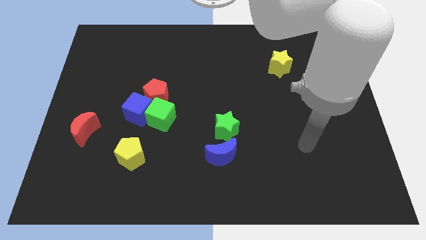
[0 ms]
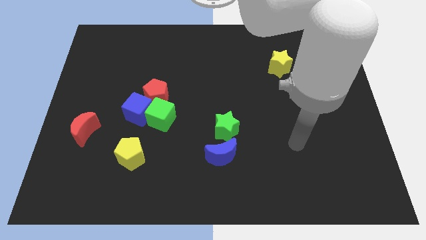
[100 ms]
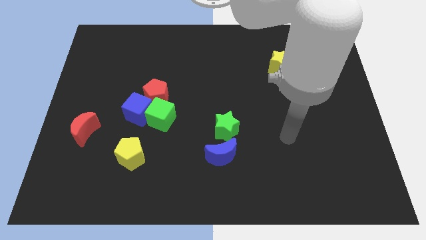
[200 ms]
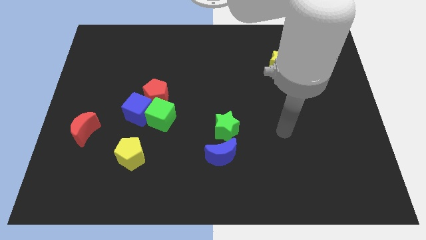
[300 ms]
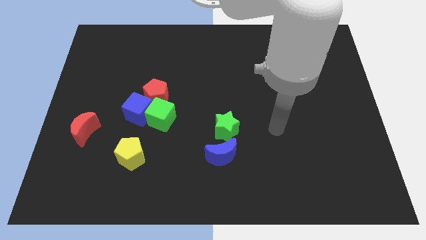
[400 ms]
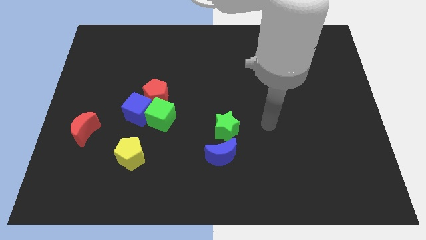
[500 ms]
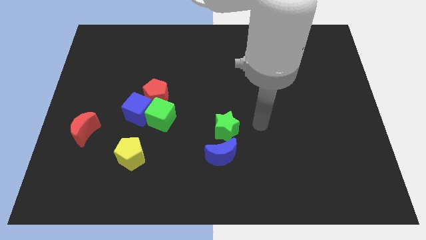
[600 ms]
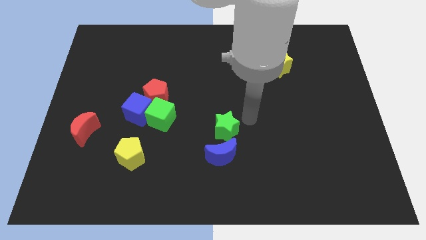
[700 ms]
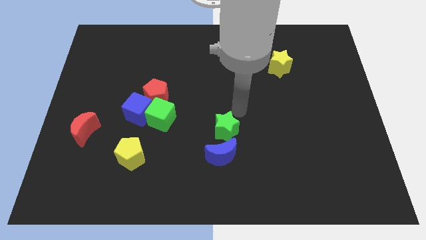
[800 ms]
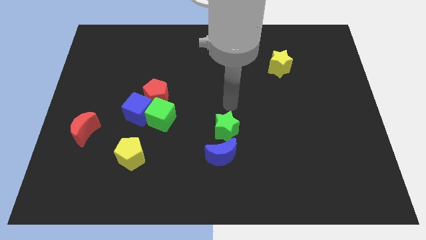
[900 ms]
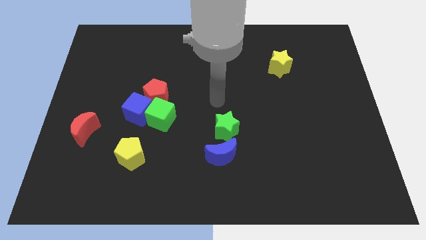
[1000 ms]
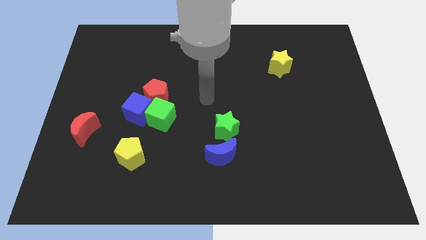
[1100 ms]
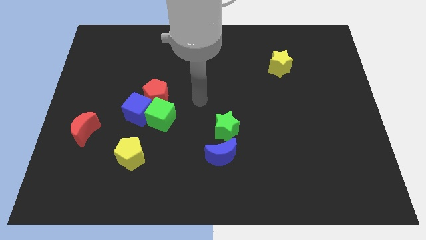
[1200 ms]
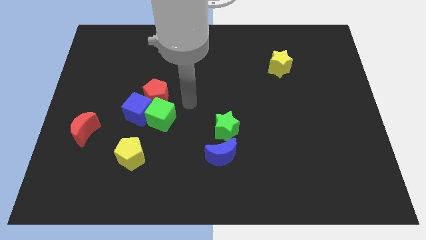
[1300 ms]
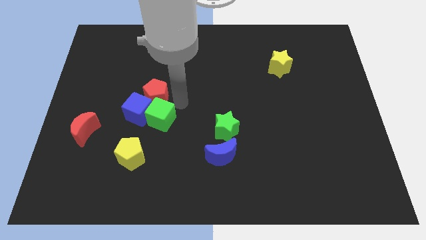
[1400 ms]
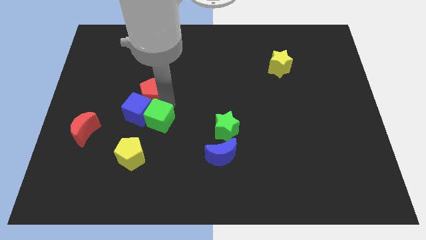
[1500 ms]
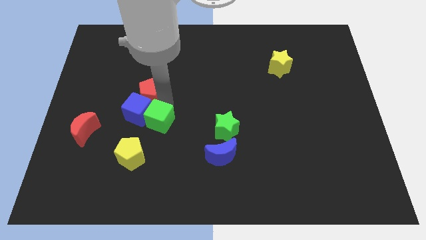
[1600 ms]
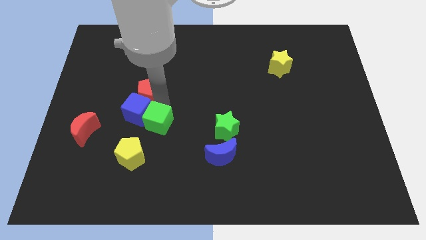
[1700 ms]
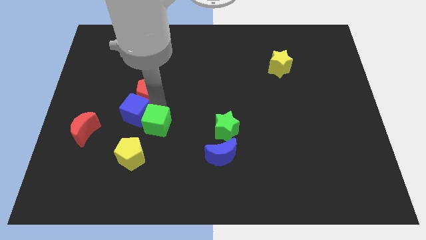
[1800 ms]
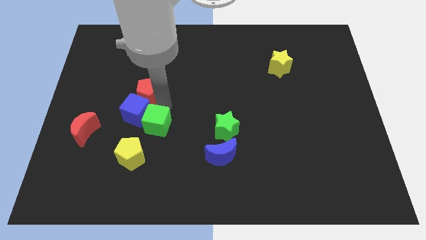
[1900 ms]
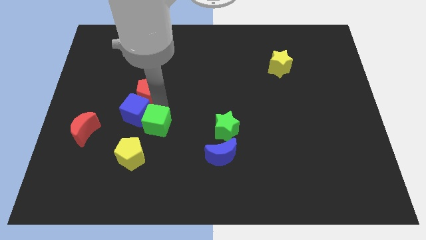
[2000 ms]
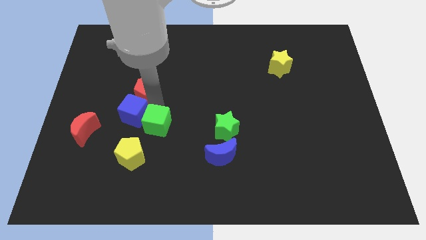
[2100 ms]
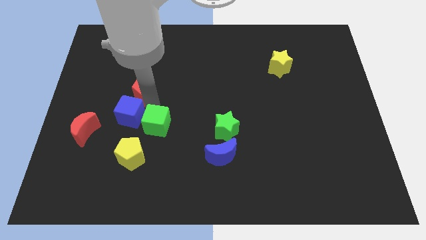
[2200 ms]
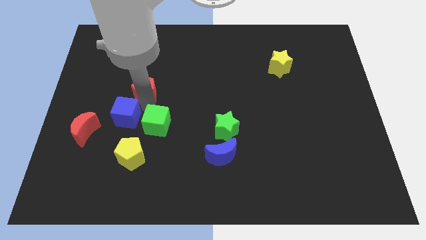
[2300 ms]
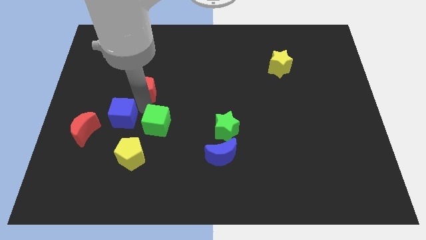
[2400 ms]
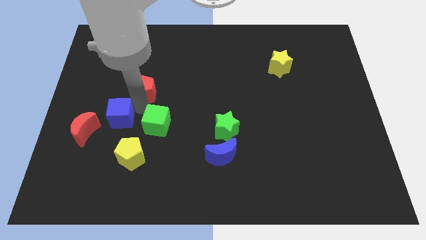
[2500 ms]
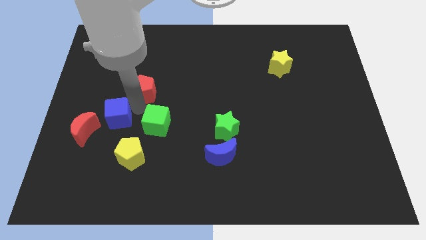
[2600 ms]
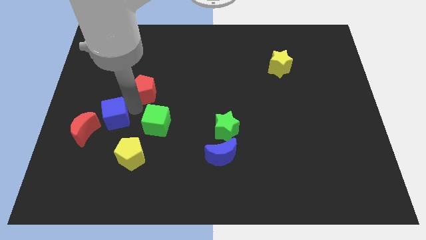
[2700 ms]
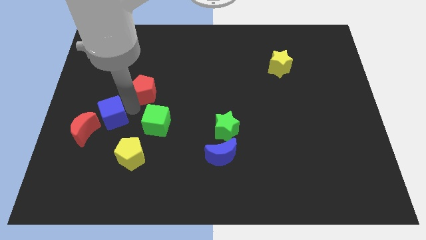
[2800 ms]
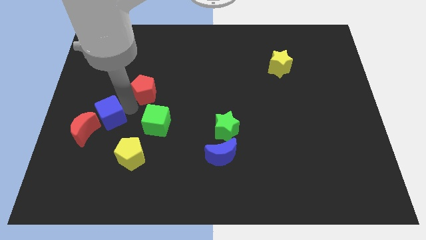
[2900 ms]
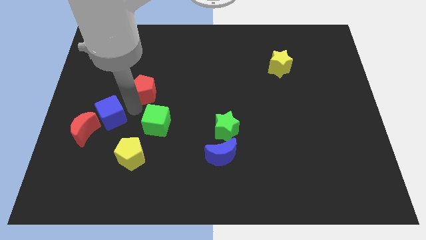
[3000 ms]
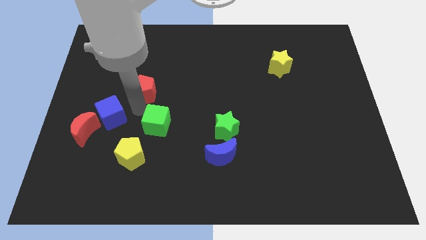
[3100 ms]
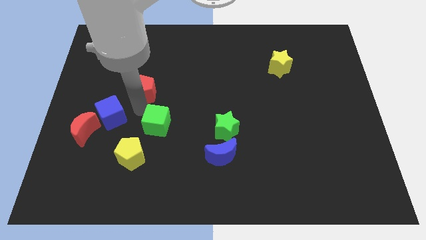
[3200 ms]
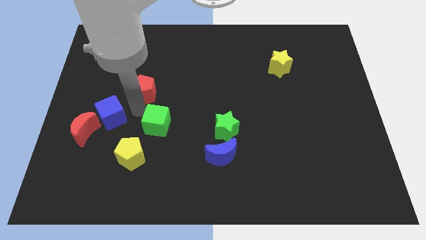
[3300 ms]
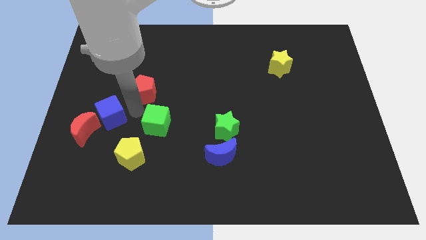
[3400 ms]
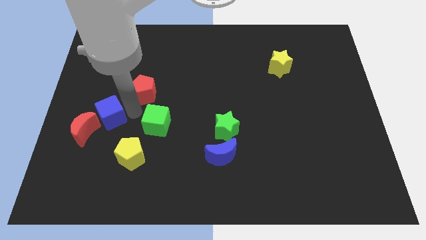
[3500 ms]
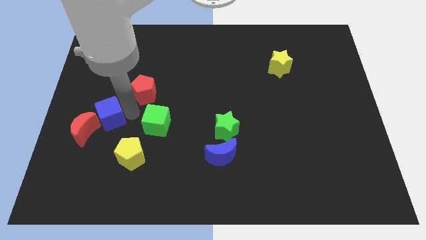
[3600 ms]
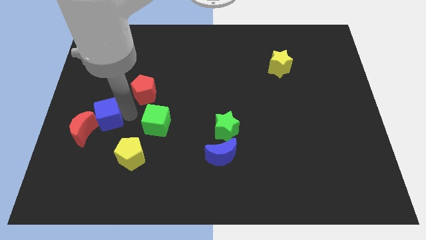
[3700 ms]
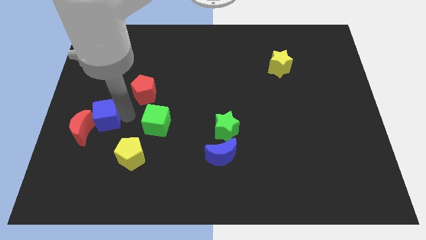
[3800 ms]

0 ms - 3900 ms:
move the blue cube away from the green cube and red pentagon

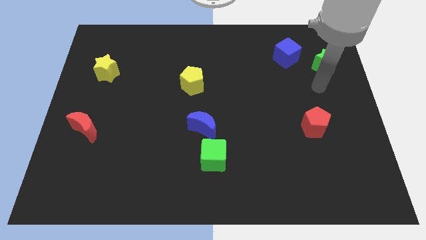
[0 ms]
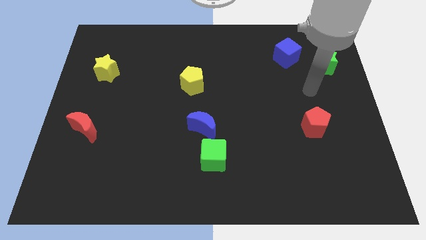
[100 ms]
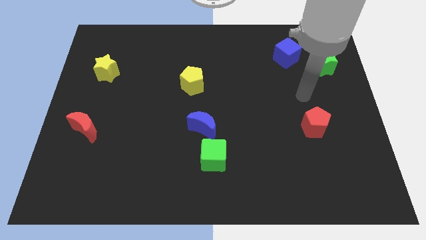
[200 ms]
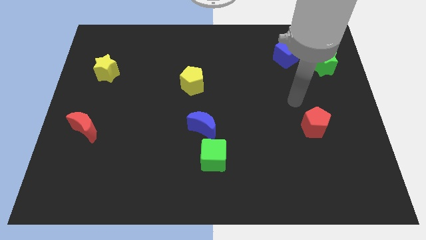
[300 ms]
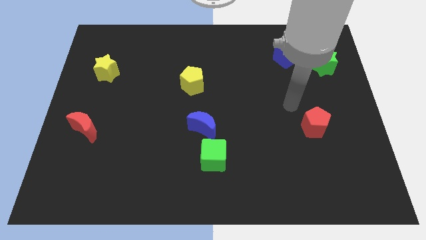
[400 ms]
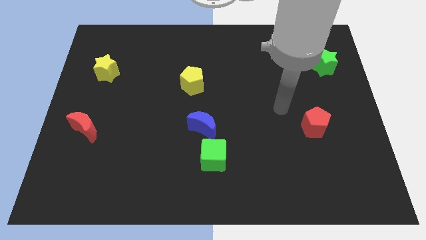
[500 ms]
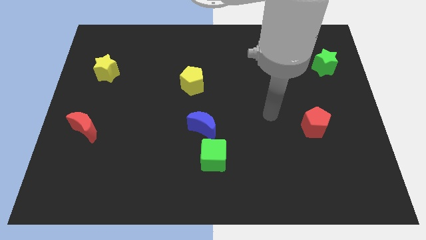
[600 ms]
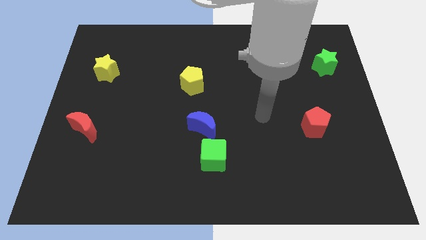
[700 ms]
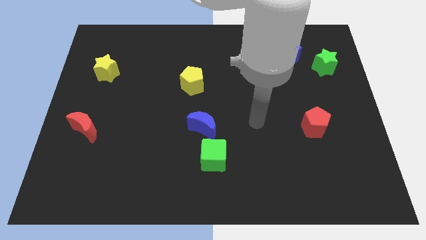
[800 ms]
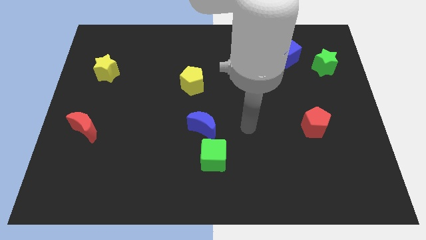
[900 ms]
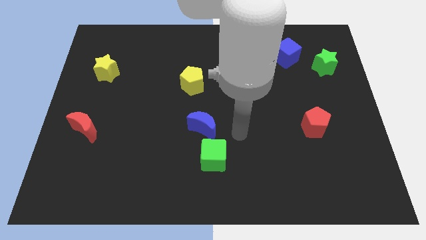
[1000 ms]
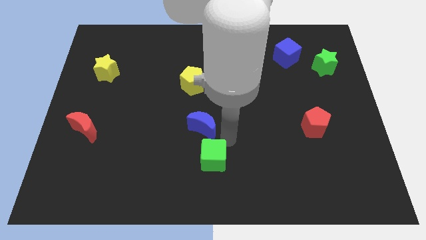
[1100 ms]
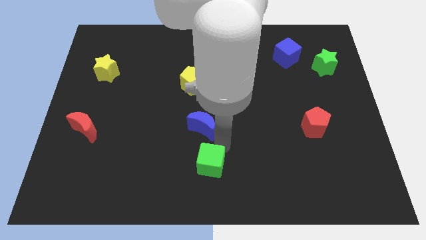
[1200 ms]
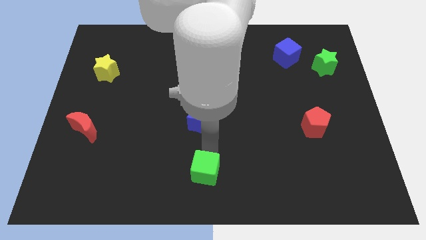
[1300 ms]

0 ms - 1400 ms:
pull the blue moon apart from the green cube

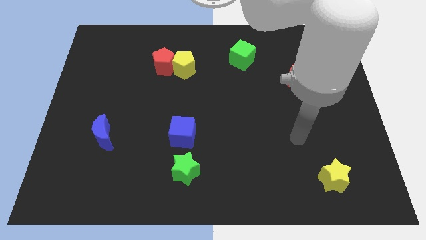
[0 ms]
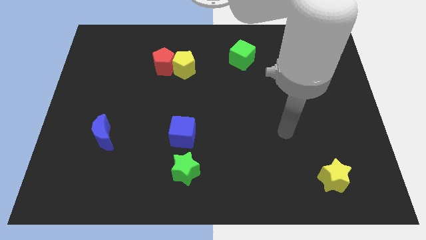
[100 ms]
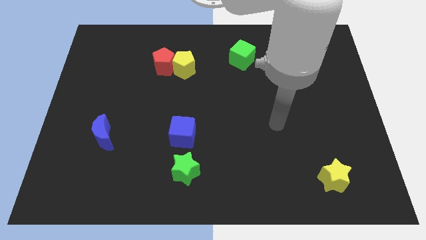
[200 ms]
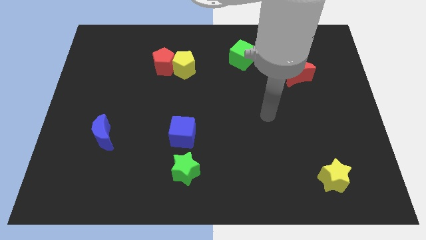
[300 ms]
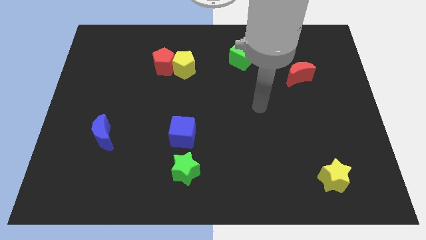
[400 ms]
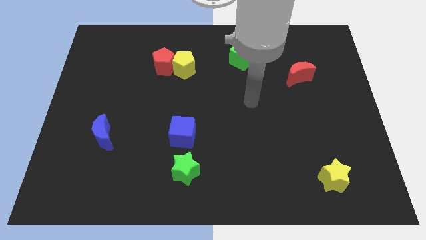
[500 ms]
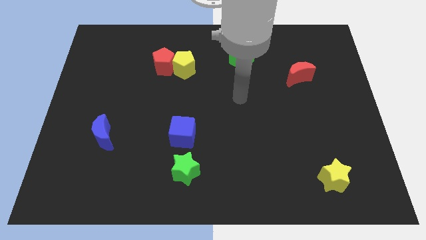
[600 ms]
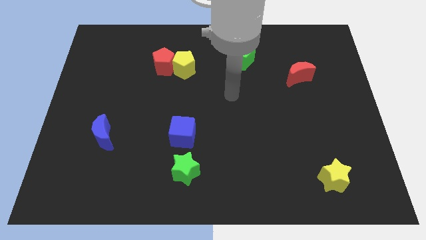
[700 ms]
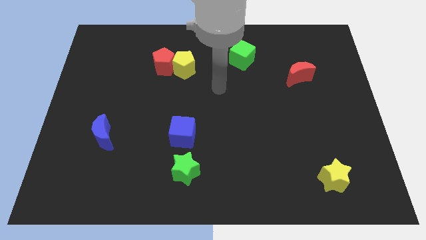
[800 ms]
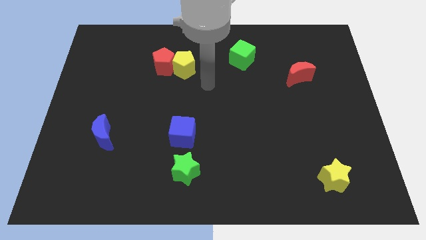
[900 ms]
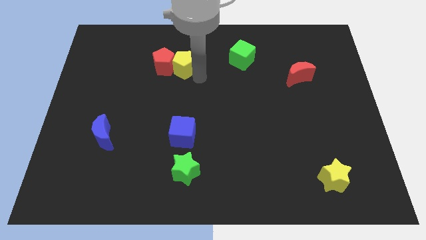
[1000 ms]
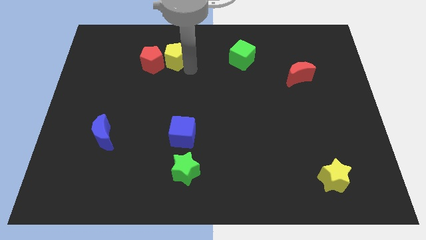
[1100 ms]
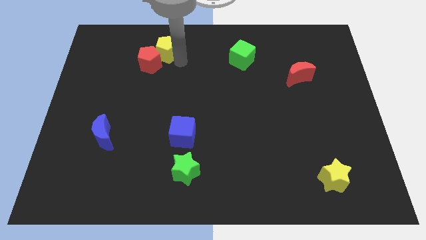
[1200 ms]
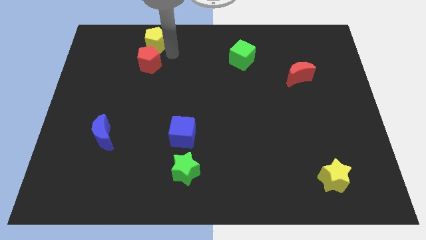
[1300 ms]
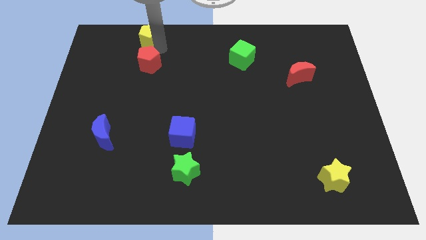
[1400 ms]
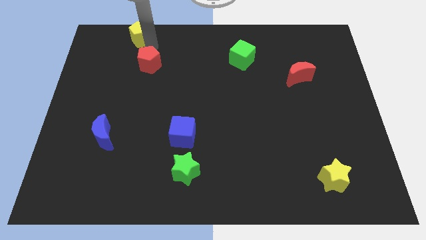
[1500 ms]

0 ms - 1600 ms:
pull the red pentagon apart from the yellow pentagon

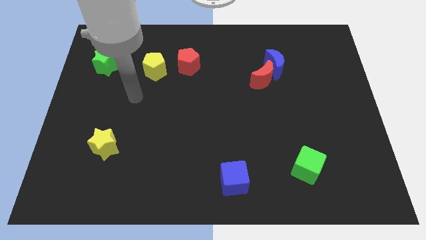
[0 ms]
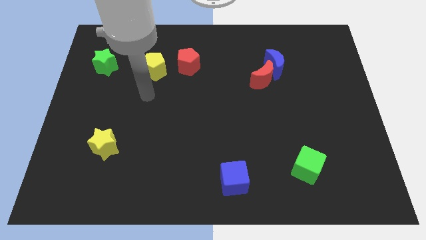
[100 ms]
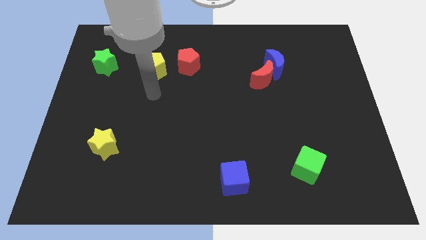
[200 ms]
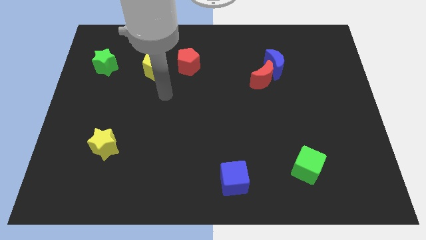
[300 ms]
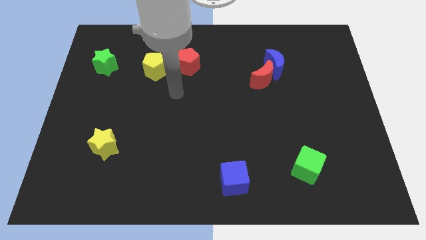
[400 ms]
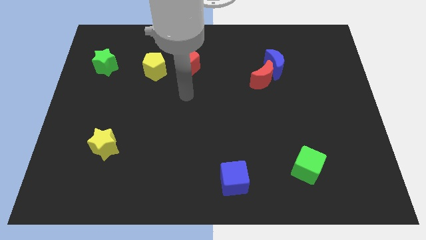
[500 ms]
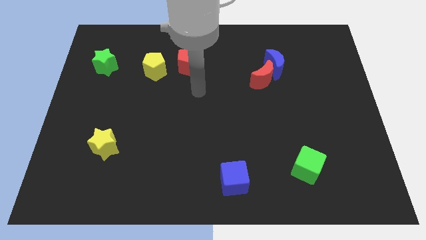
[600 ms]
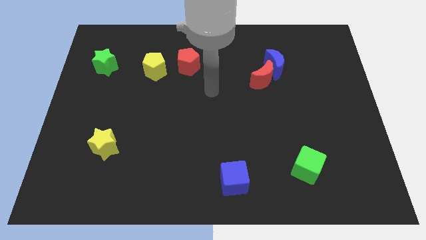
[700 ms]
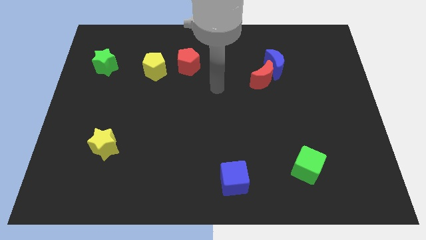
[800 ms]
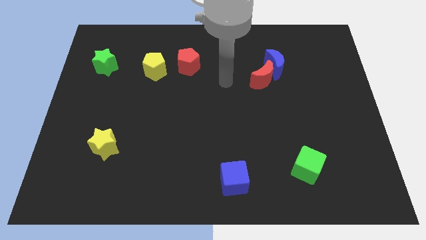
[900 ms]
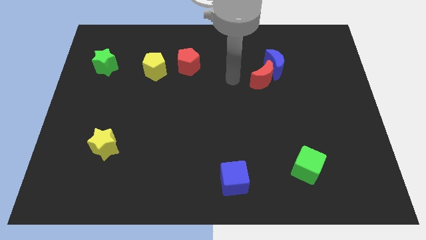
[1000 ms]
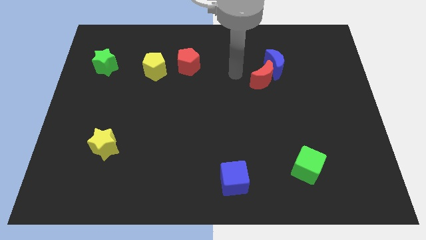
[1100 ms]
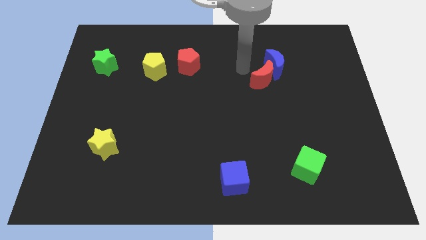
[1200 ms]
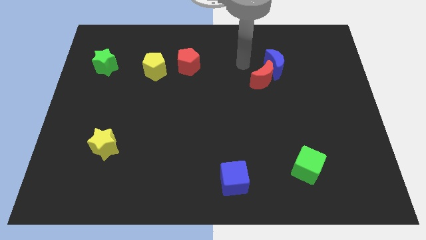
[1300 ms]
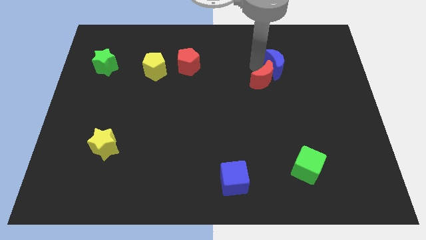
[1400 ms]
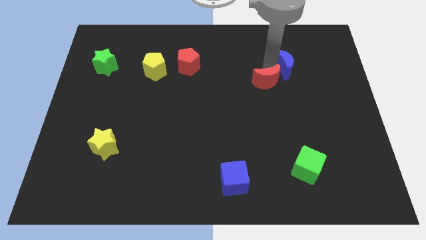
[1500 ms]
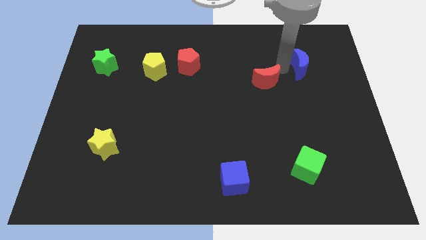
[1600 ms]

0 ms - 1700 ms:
move the red moon away from the blue moon

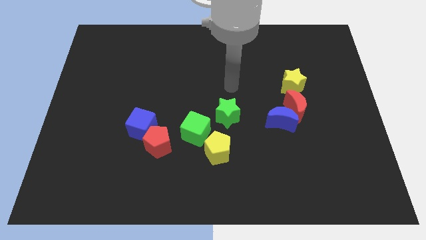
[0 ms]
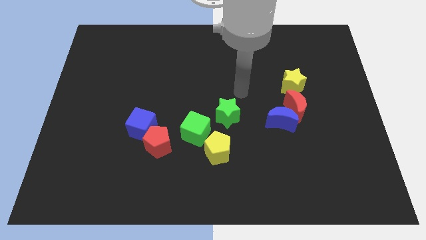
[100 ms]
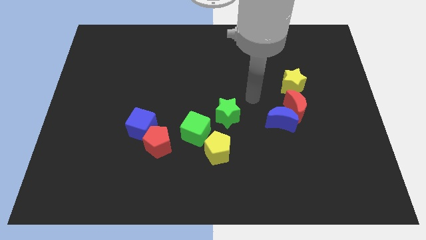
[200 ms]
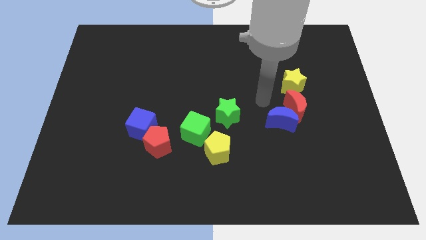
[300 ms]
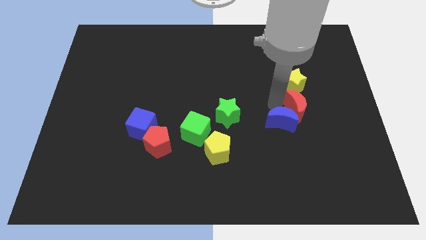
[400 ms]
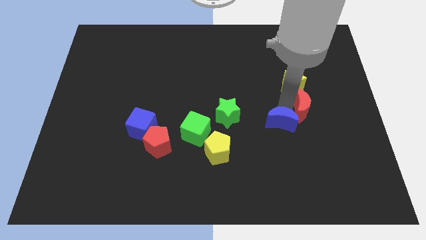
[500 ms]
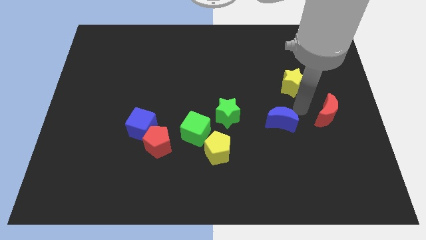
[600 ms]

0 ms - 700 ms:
separate the blue moon from the red moon
